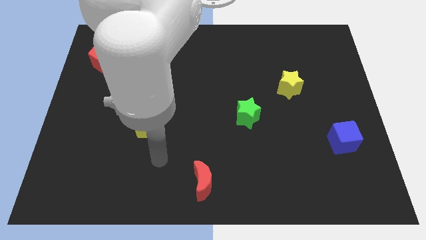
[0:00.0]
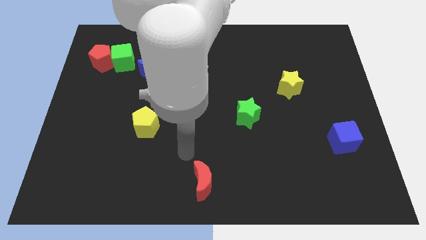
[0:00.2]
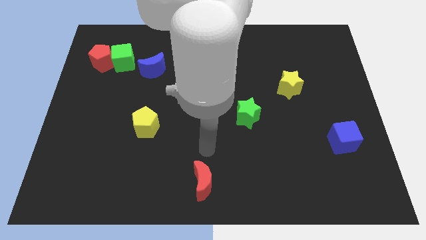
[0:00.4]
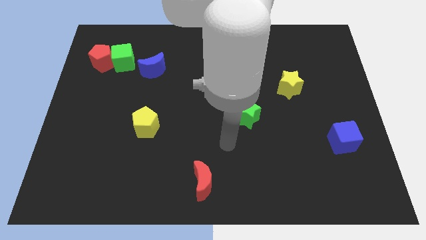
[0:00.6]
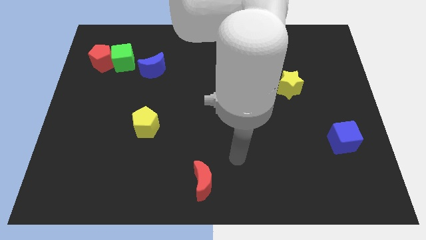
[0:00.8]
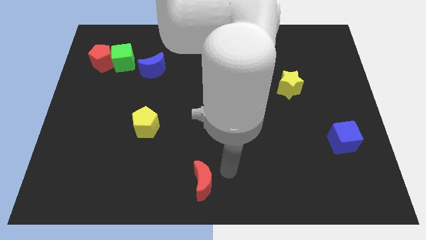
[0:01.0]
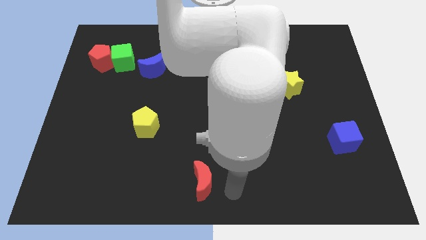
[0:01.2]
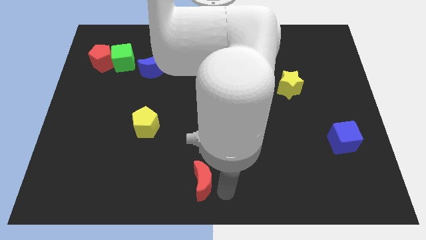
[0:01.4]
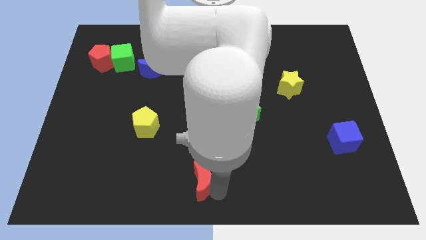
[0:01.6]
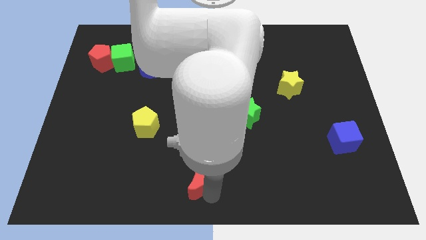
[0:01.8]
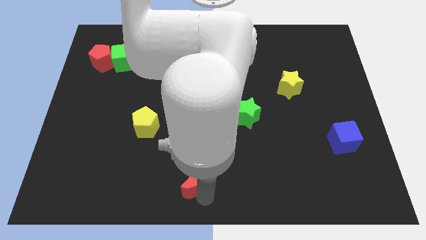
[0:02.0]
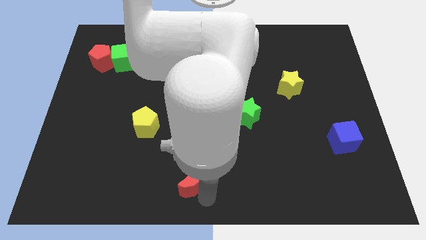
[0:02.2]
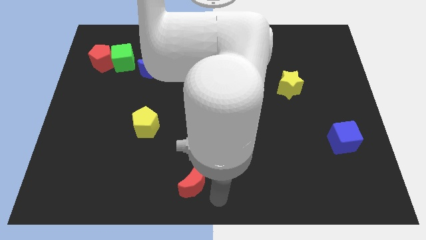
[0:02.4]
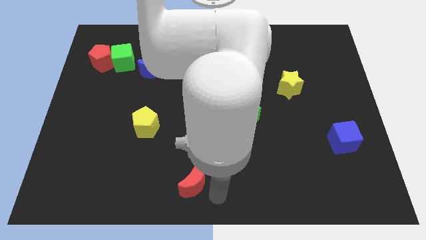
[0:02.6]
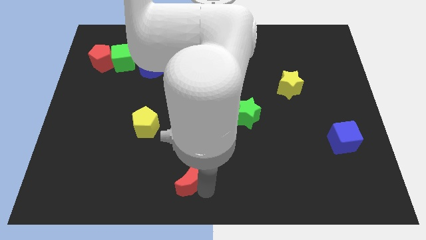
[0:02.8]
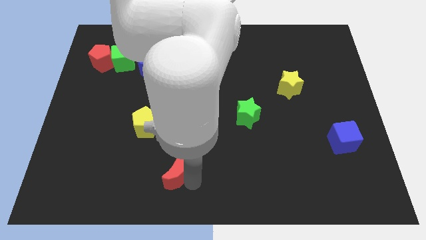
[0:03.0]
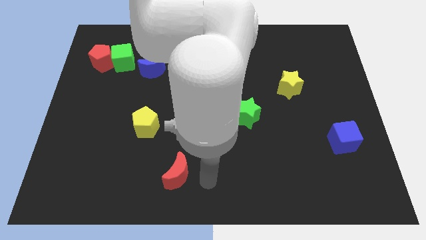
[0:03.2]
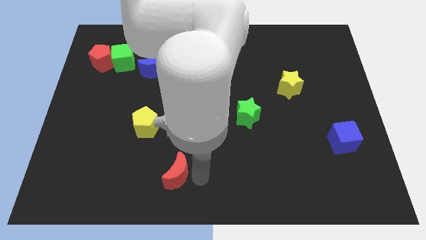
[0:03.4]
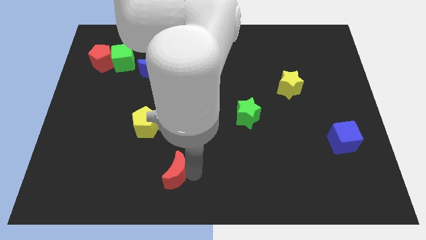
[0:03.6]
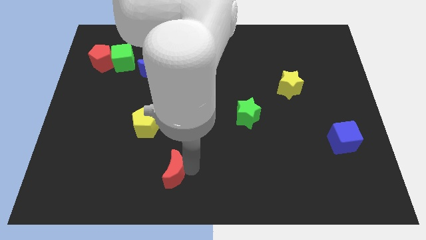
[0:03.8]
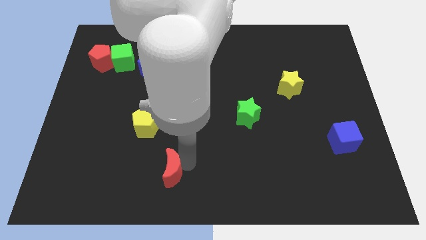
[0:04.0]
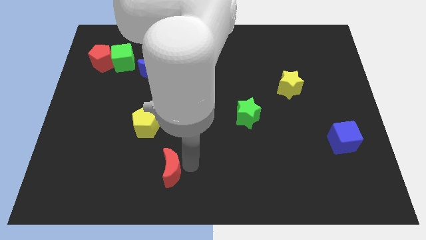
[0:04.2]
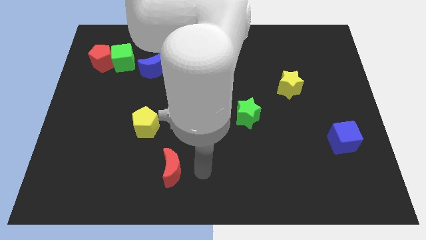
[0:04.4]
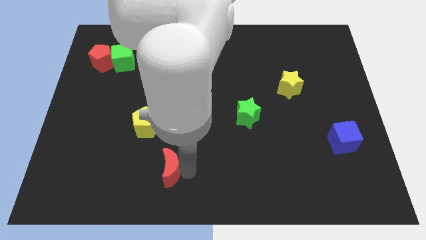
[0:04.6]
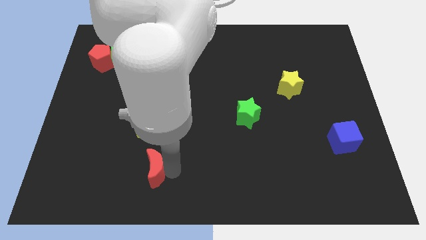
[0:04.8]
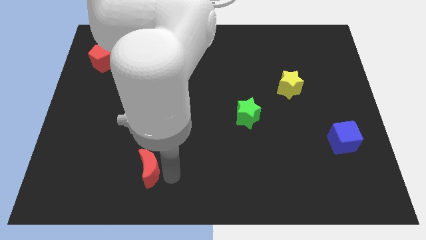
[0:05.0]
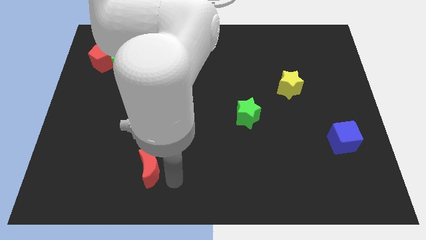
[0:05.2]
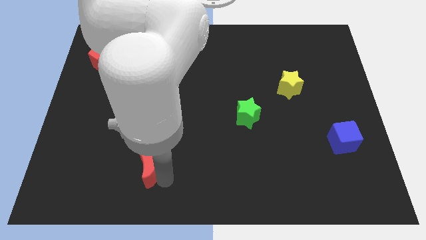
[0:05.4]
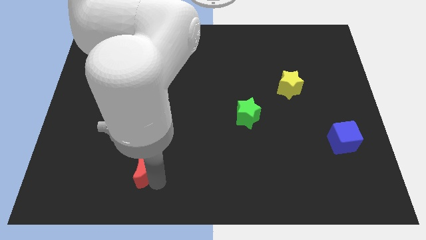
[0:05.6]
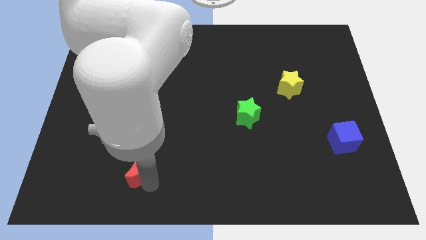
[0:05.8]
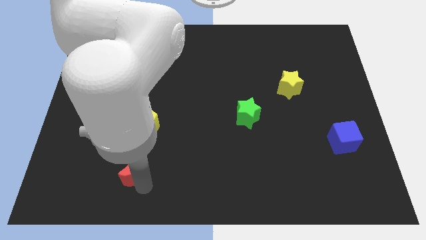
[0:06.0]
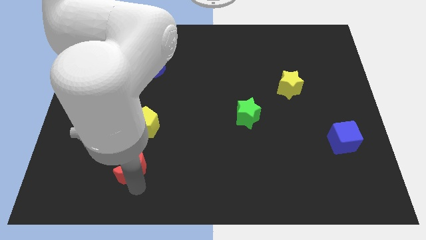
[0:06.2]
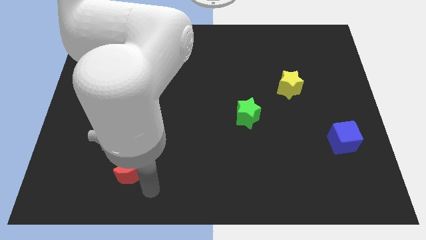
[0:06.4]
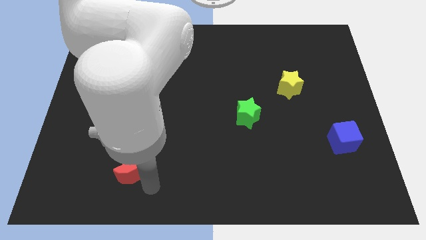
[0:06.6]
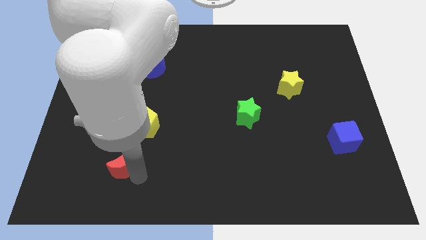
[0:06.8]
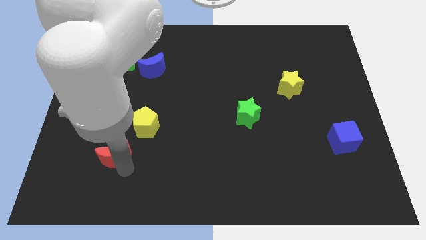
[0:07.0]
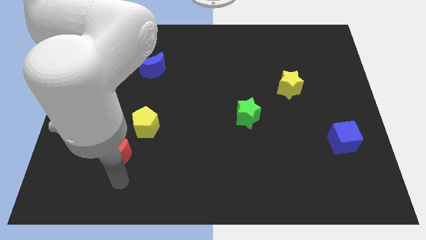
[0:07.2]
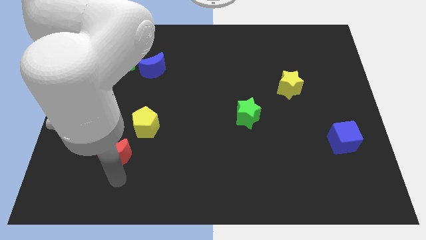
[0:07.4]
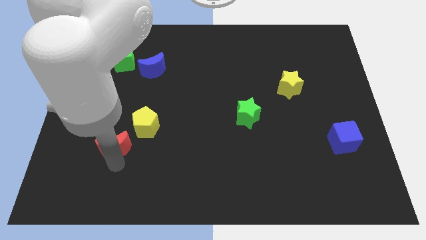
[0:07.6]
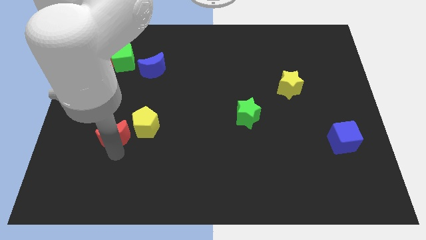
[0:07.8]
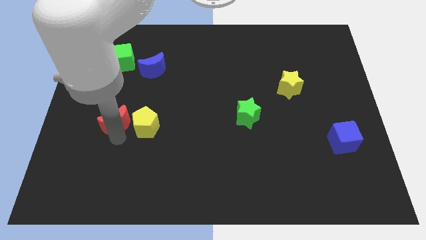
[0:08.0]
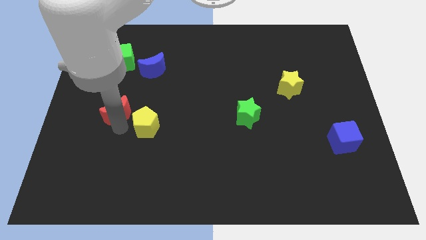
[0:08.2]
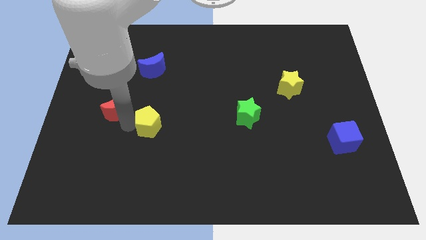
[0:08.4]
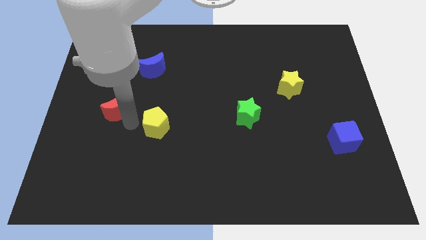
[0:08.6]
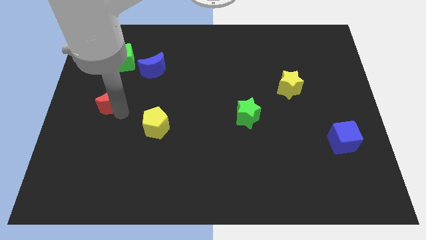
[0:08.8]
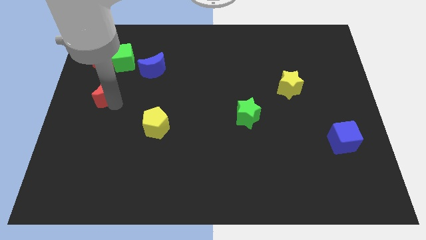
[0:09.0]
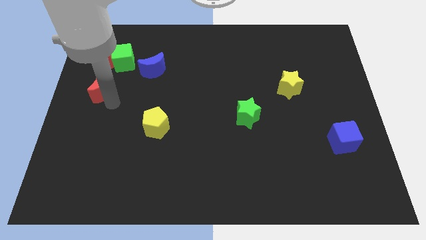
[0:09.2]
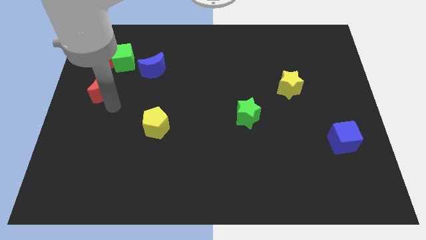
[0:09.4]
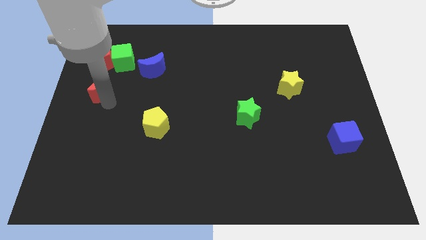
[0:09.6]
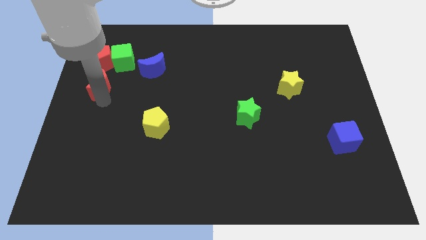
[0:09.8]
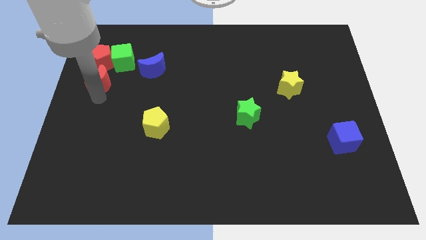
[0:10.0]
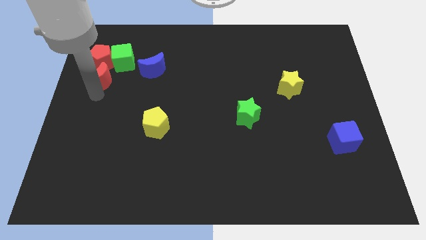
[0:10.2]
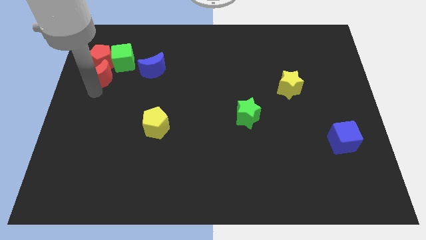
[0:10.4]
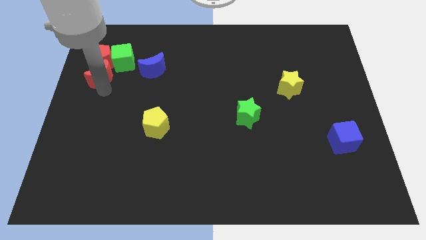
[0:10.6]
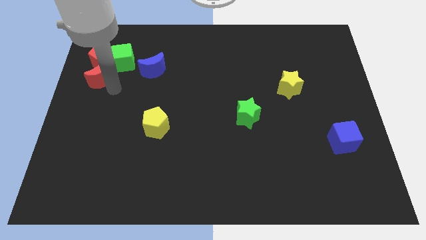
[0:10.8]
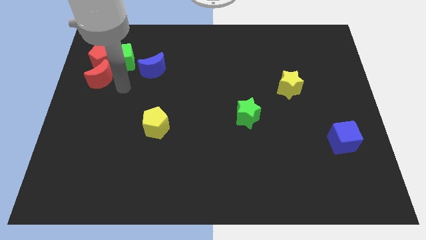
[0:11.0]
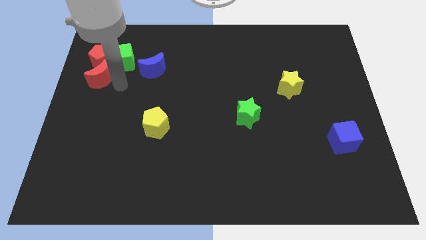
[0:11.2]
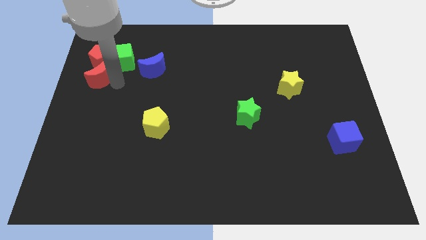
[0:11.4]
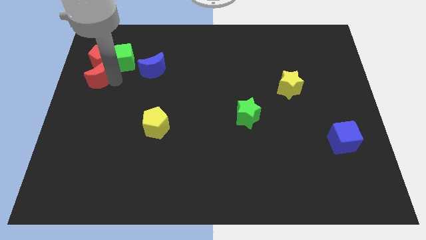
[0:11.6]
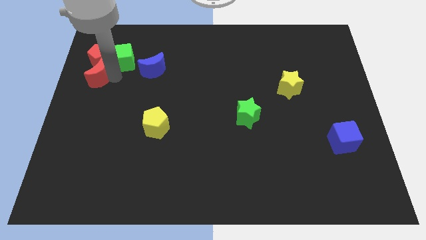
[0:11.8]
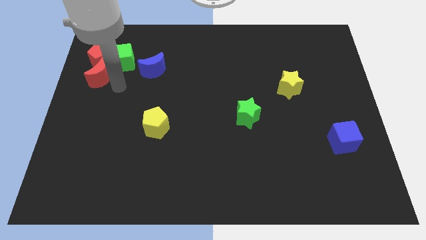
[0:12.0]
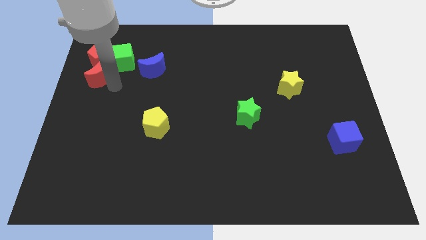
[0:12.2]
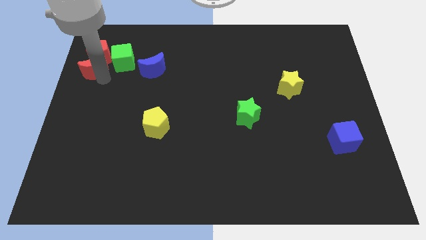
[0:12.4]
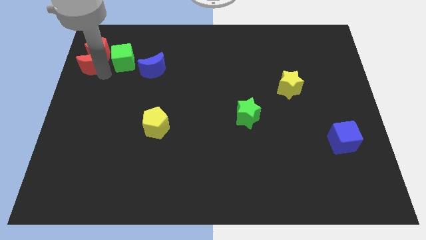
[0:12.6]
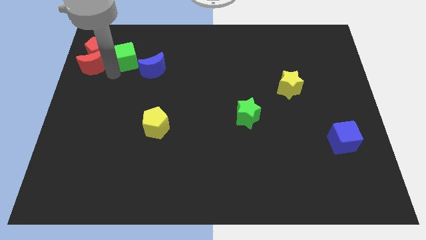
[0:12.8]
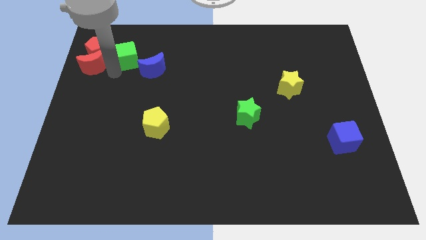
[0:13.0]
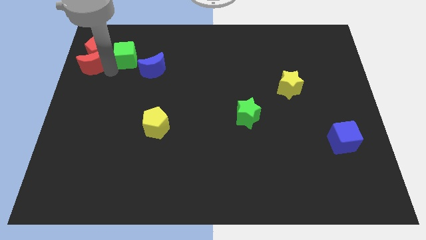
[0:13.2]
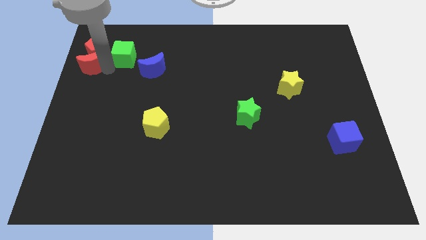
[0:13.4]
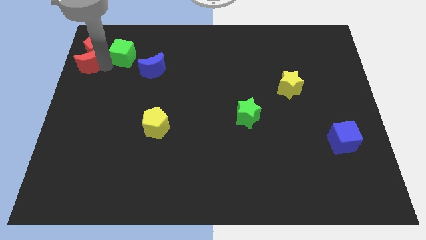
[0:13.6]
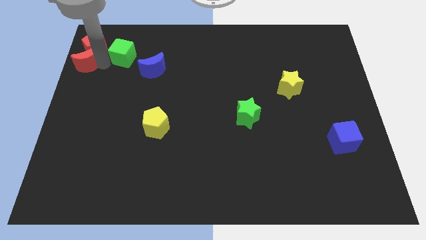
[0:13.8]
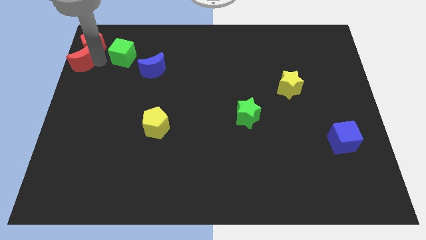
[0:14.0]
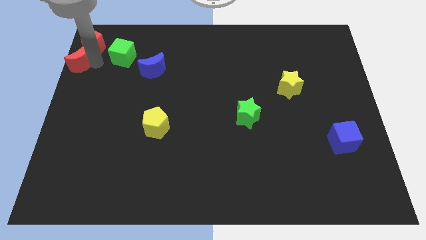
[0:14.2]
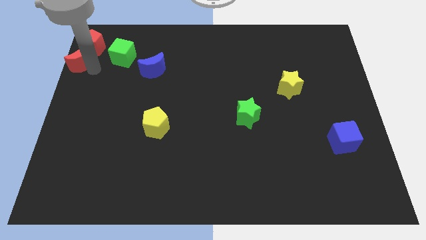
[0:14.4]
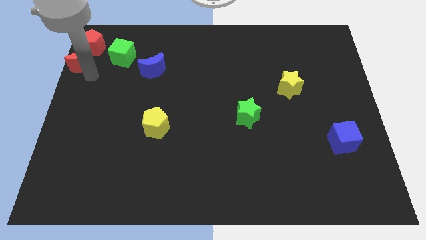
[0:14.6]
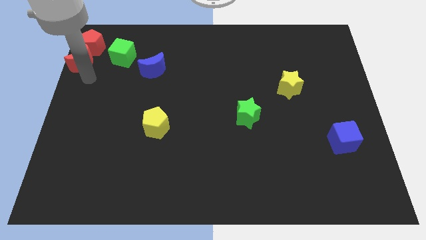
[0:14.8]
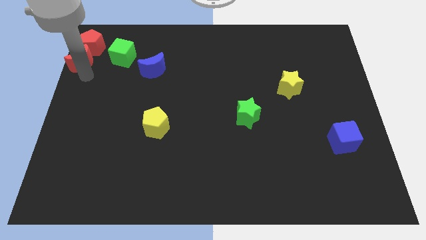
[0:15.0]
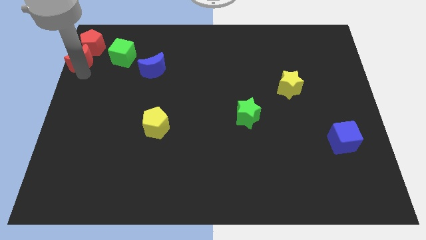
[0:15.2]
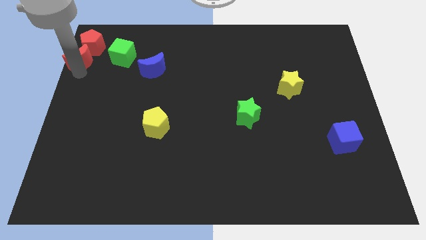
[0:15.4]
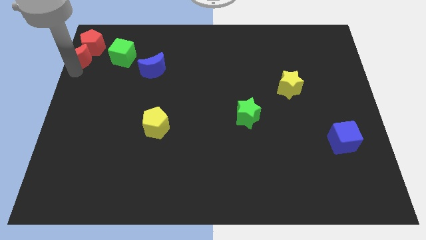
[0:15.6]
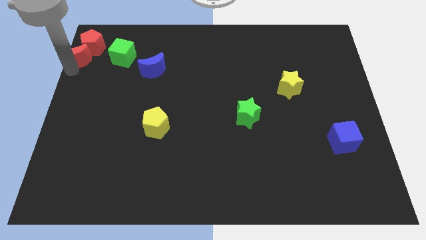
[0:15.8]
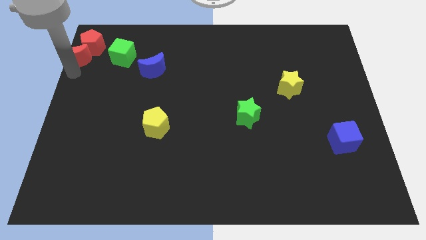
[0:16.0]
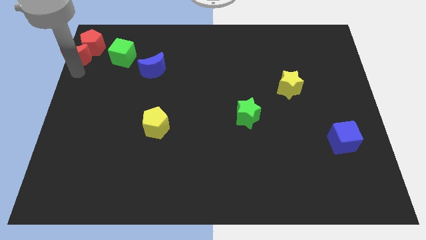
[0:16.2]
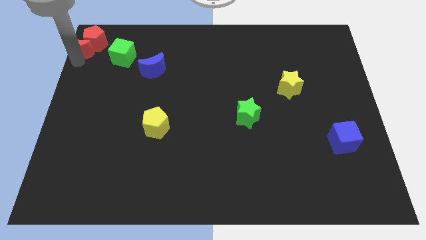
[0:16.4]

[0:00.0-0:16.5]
push the red moon to the top left of the board
